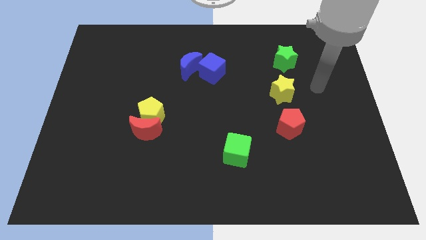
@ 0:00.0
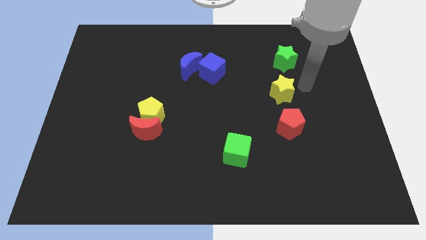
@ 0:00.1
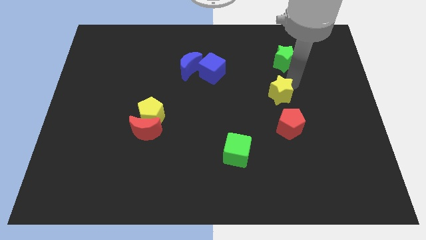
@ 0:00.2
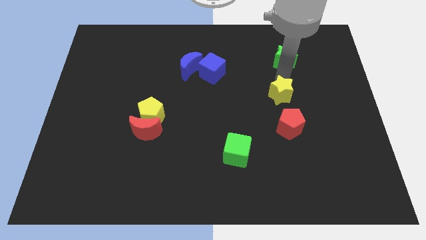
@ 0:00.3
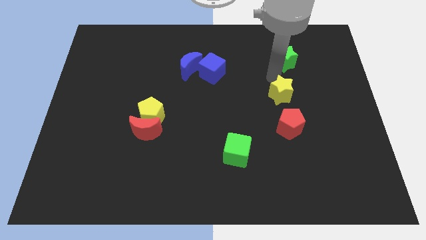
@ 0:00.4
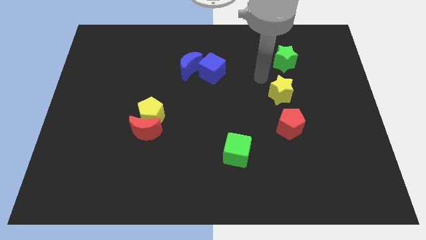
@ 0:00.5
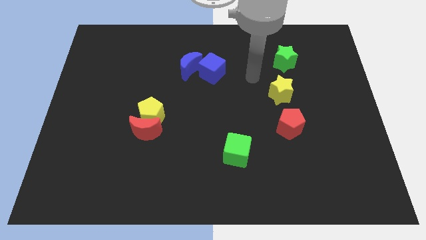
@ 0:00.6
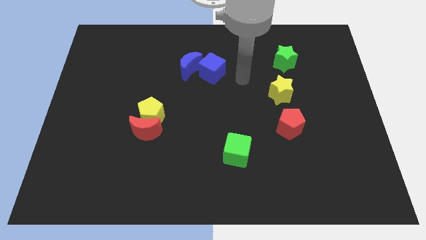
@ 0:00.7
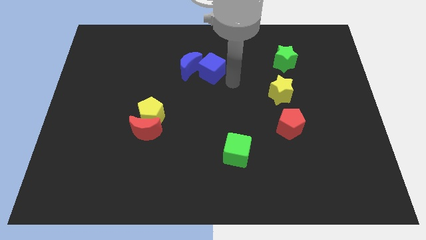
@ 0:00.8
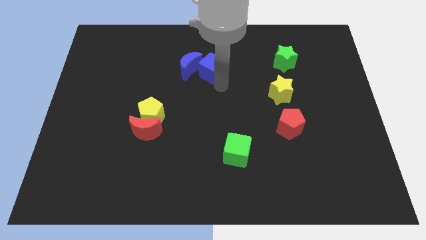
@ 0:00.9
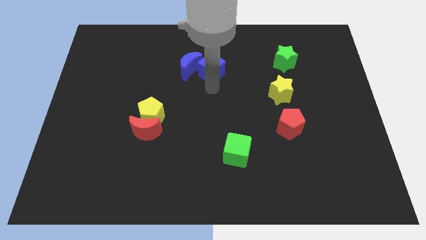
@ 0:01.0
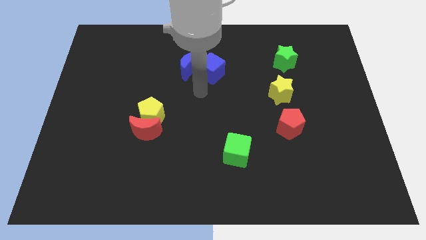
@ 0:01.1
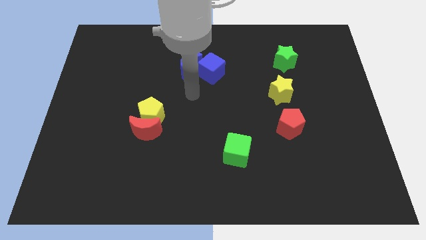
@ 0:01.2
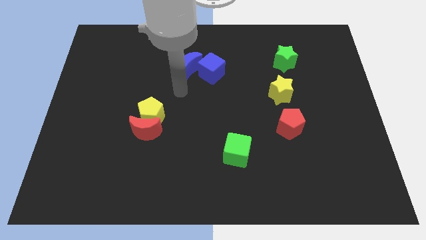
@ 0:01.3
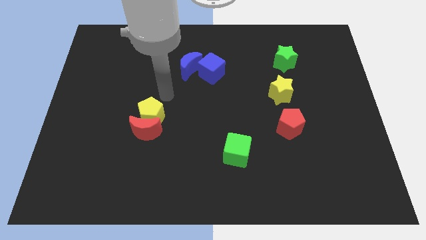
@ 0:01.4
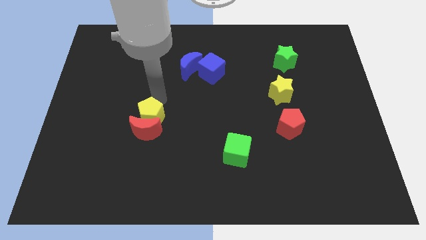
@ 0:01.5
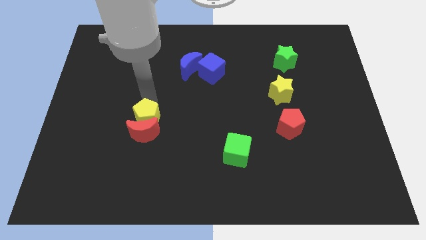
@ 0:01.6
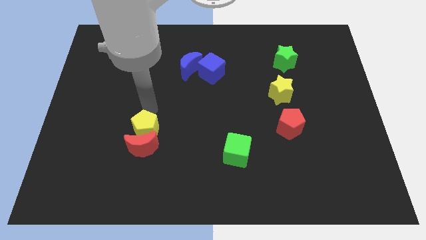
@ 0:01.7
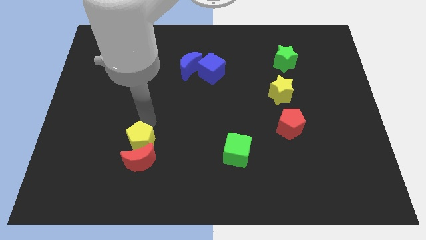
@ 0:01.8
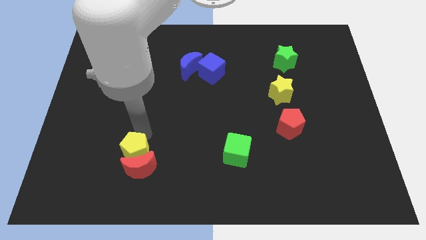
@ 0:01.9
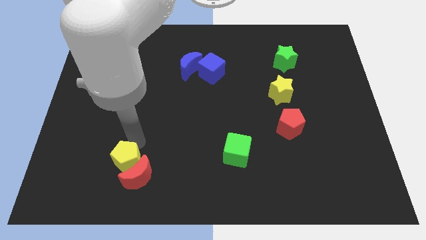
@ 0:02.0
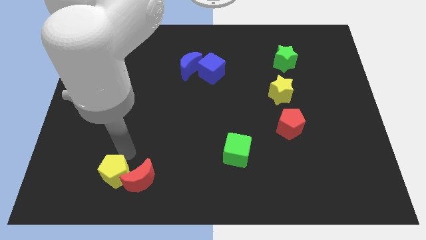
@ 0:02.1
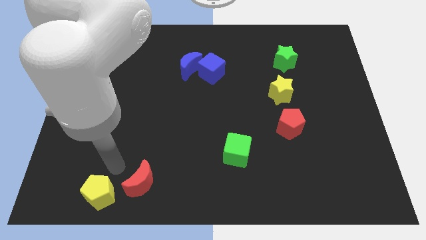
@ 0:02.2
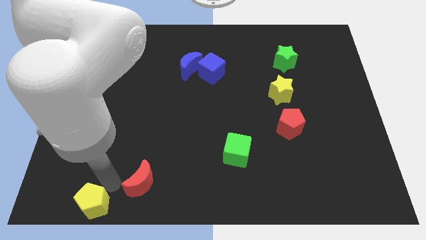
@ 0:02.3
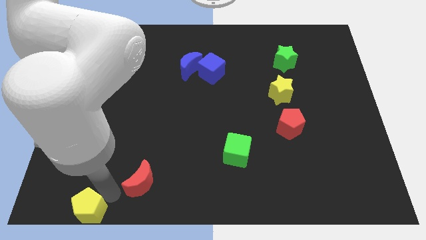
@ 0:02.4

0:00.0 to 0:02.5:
move the red moon away from the yellow pentagon

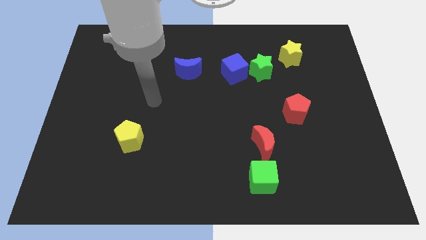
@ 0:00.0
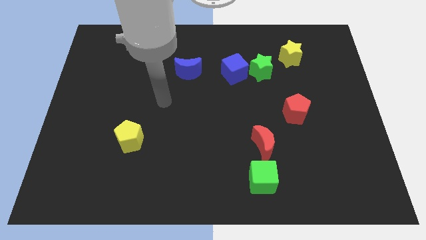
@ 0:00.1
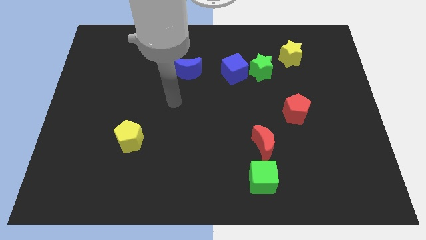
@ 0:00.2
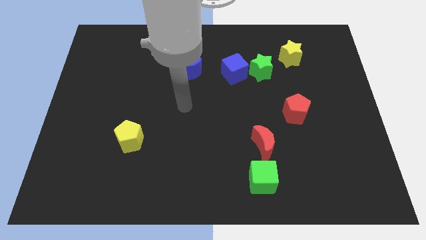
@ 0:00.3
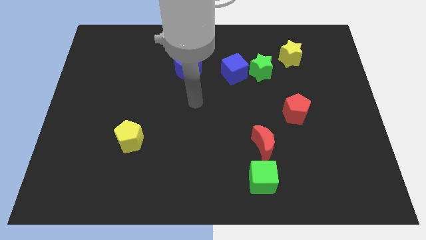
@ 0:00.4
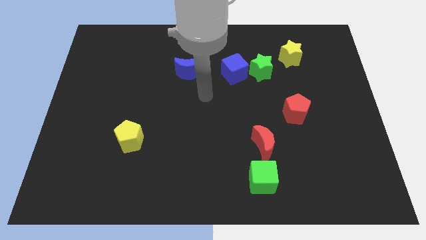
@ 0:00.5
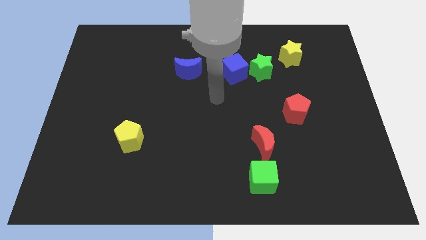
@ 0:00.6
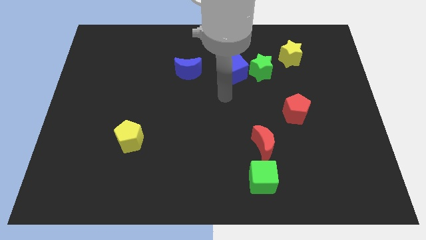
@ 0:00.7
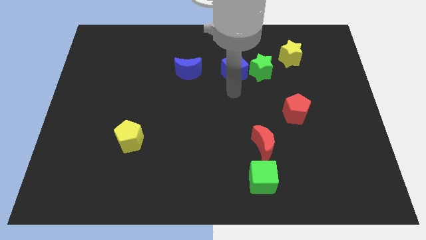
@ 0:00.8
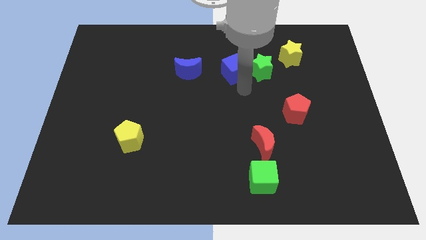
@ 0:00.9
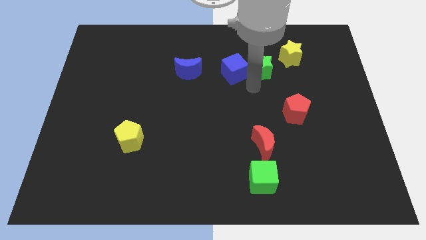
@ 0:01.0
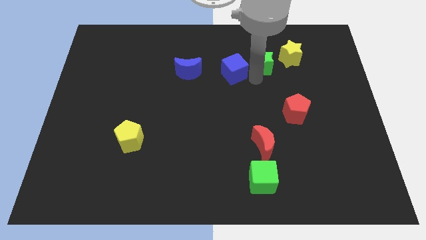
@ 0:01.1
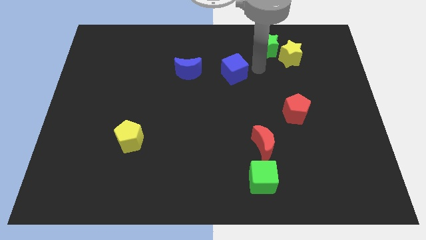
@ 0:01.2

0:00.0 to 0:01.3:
move the blue cube away from the green star

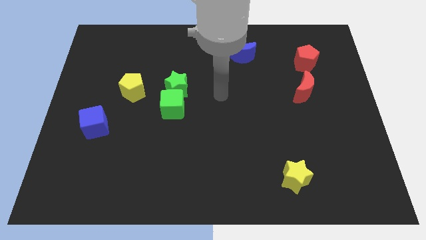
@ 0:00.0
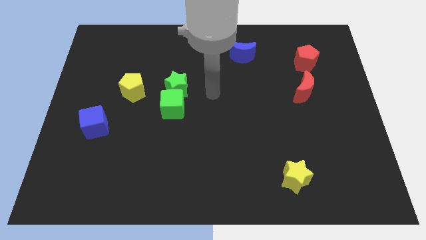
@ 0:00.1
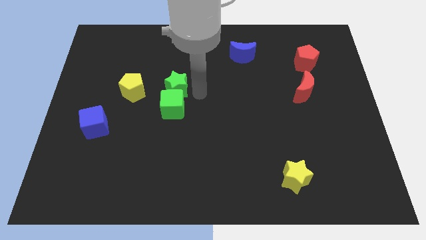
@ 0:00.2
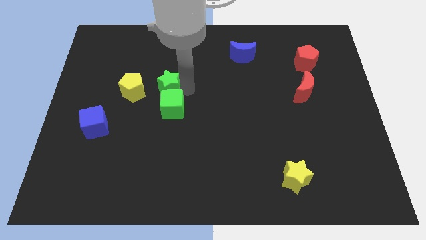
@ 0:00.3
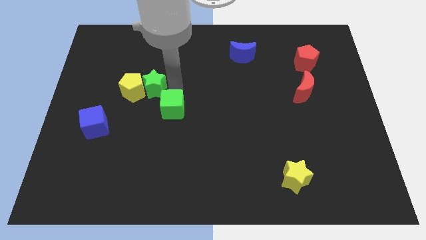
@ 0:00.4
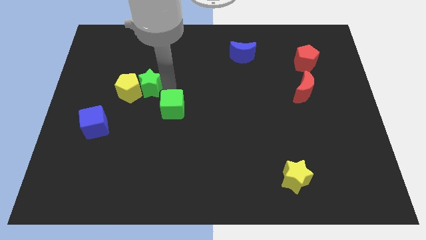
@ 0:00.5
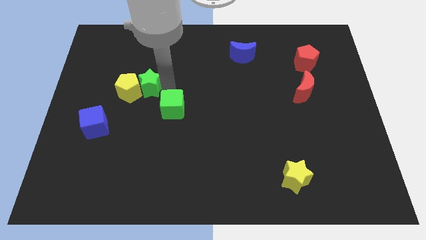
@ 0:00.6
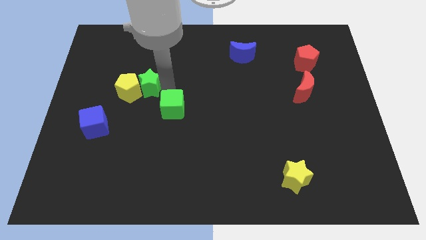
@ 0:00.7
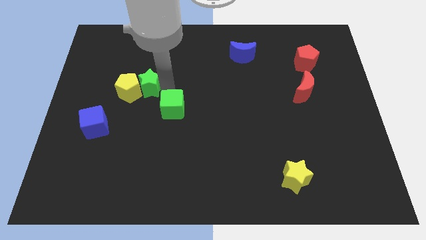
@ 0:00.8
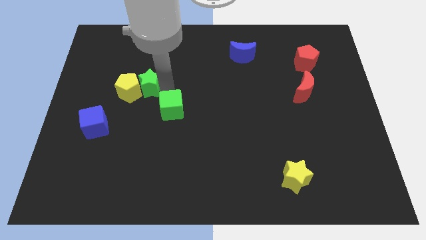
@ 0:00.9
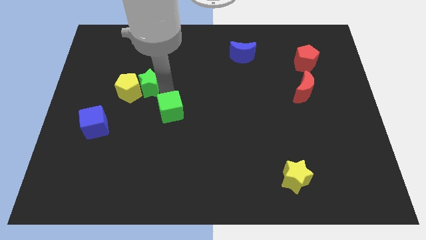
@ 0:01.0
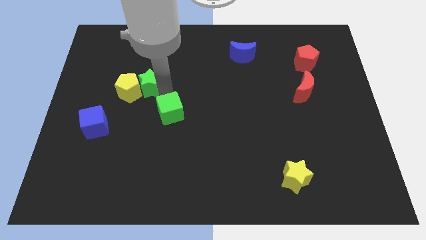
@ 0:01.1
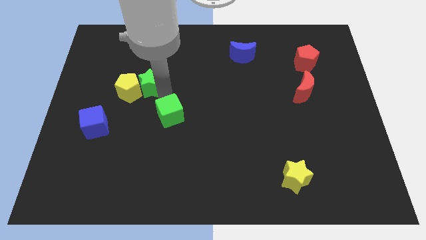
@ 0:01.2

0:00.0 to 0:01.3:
move the green cube away from the green star

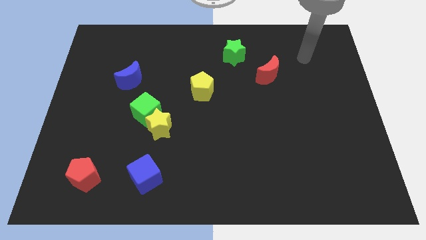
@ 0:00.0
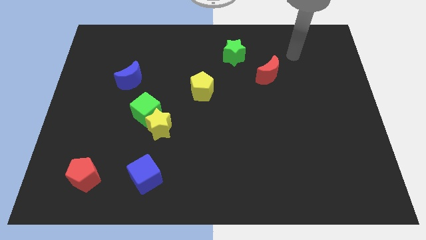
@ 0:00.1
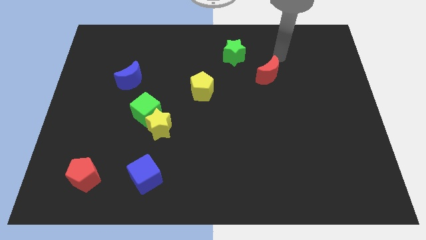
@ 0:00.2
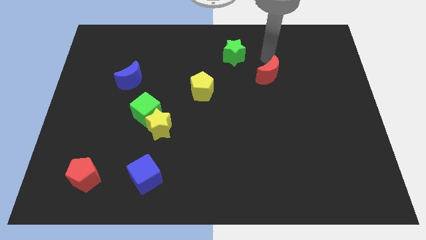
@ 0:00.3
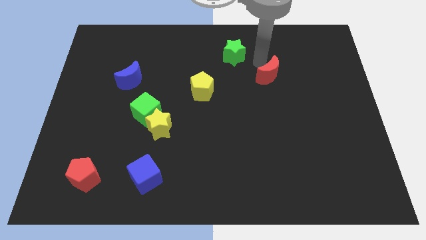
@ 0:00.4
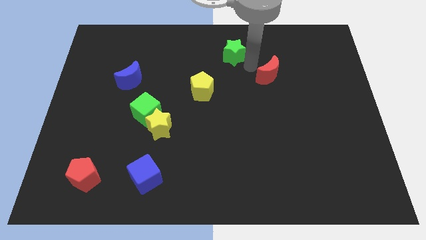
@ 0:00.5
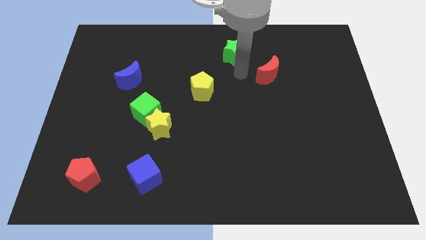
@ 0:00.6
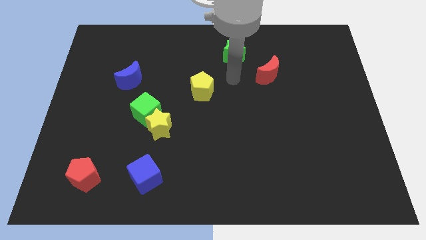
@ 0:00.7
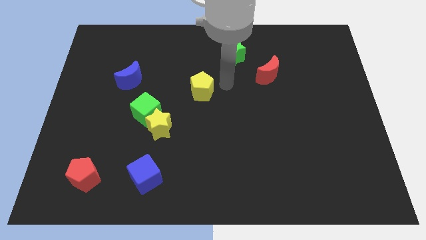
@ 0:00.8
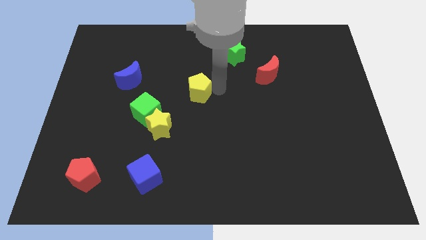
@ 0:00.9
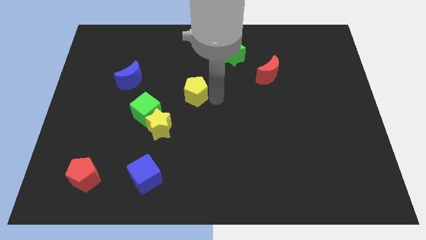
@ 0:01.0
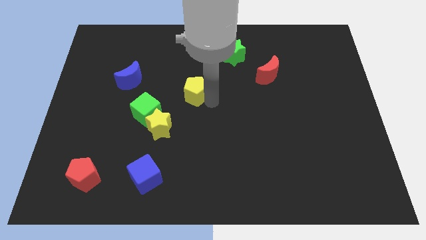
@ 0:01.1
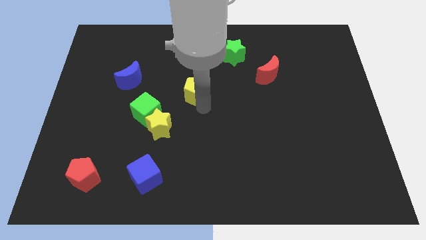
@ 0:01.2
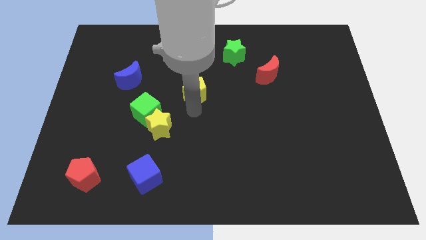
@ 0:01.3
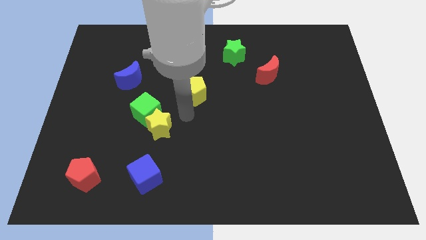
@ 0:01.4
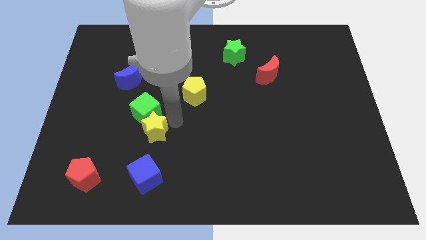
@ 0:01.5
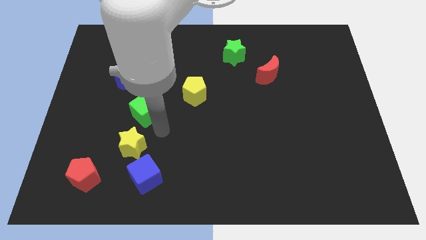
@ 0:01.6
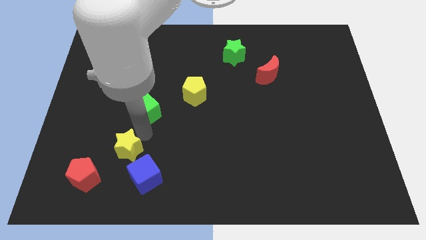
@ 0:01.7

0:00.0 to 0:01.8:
separate the green cube from the yellow star

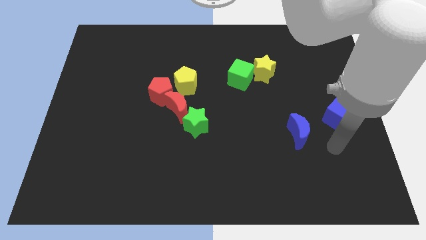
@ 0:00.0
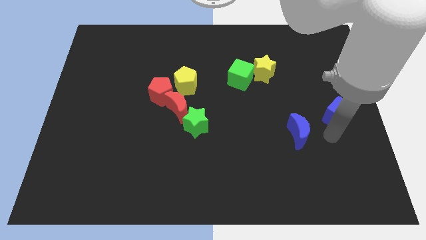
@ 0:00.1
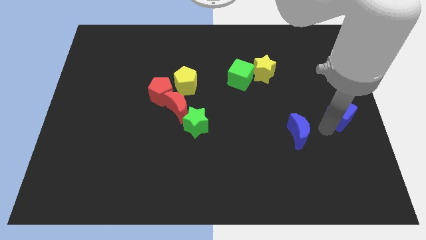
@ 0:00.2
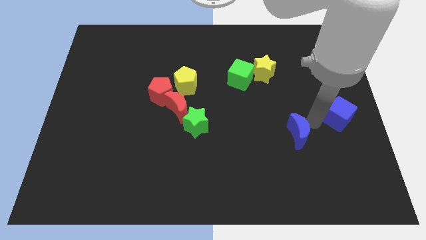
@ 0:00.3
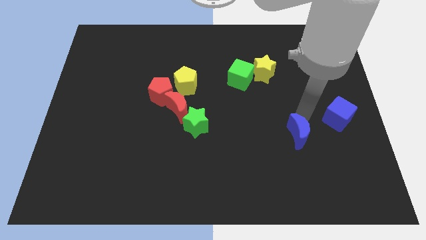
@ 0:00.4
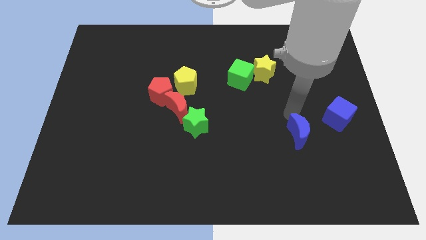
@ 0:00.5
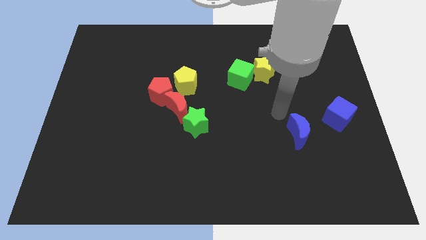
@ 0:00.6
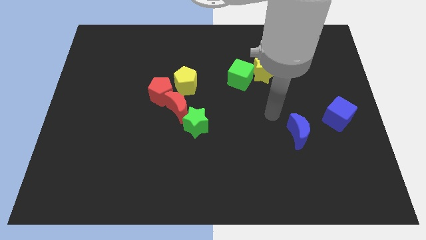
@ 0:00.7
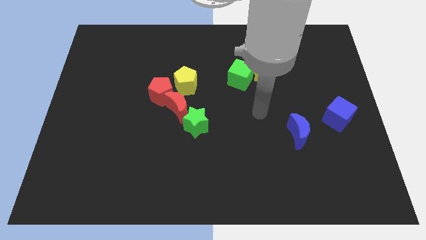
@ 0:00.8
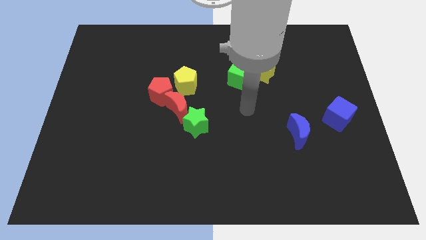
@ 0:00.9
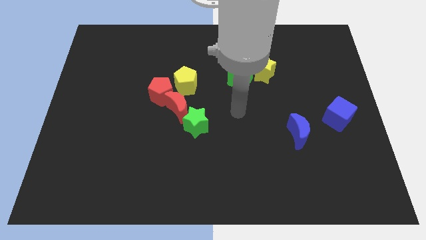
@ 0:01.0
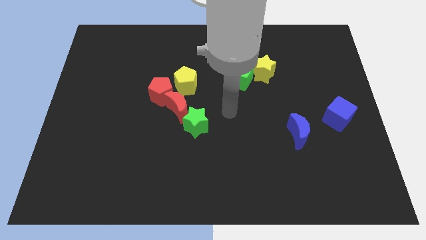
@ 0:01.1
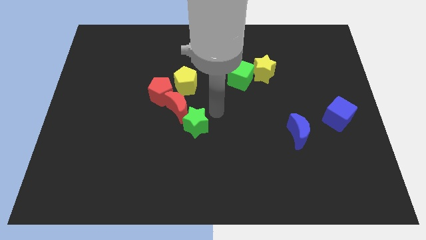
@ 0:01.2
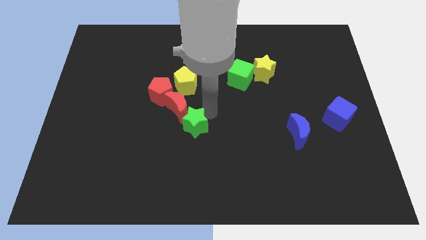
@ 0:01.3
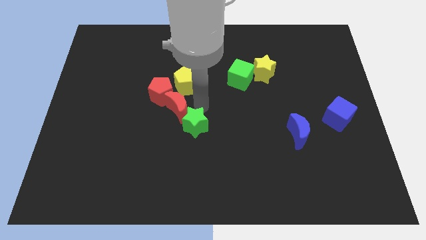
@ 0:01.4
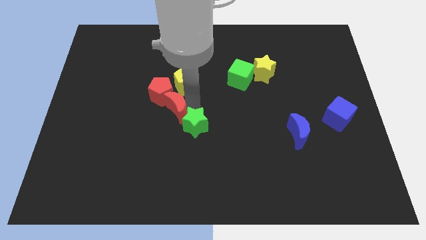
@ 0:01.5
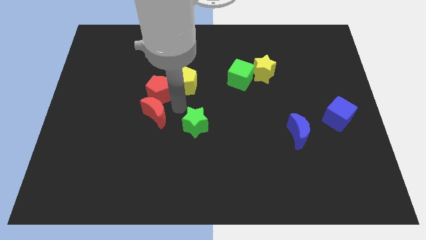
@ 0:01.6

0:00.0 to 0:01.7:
pull the green star apart from the red moon

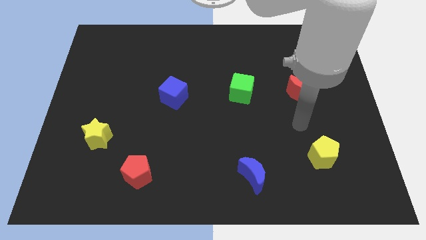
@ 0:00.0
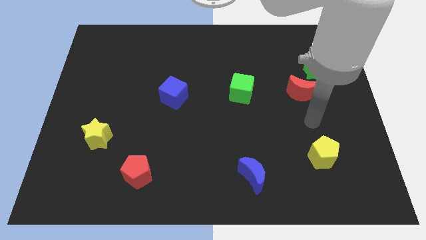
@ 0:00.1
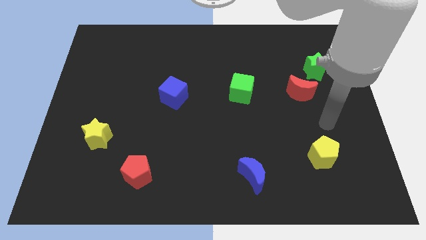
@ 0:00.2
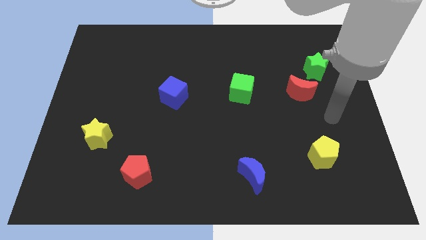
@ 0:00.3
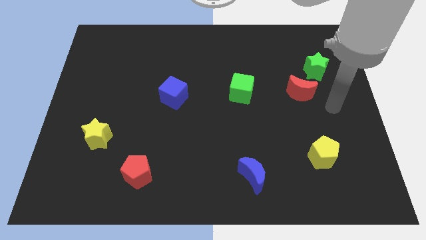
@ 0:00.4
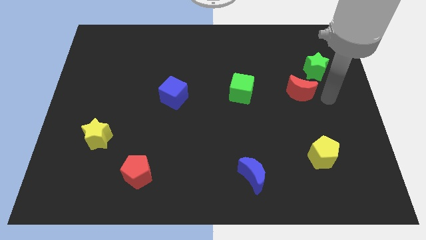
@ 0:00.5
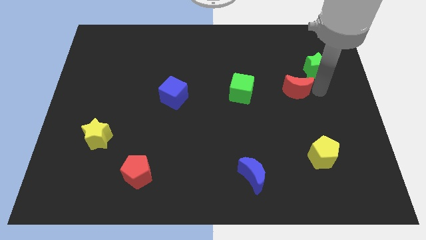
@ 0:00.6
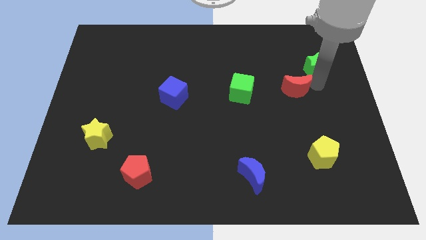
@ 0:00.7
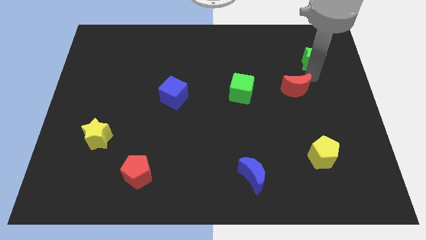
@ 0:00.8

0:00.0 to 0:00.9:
separate the red moon from the green star
